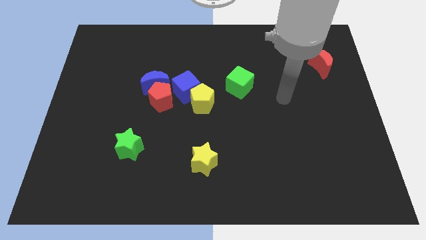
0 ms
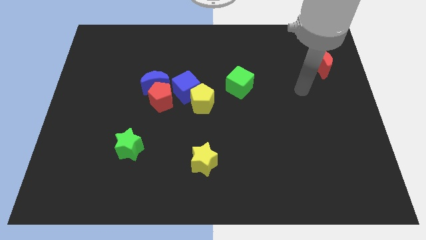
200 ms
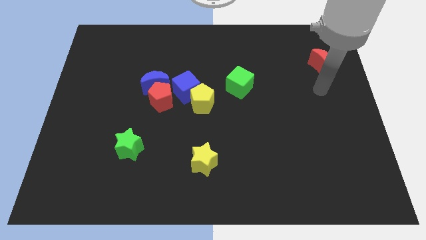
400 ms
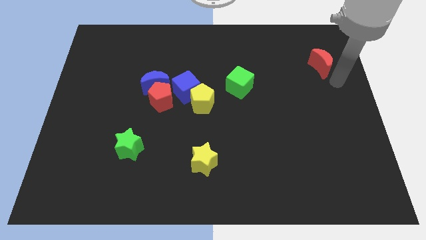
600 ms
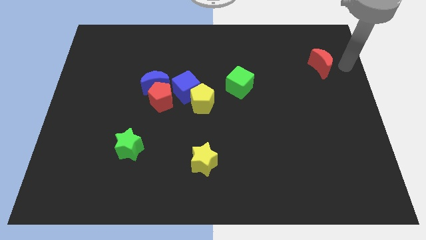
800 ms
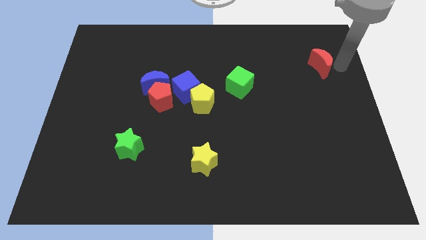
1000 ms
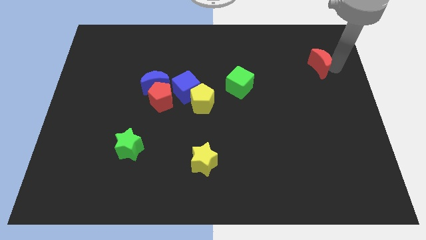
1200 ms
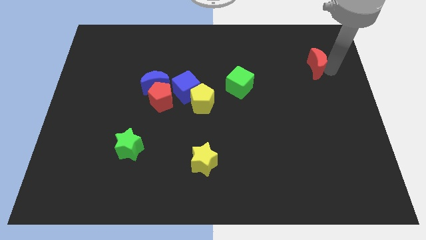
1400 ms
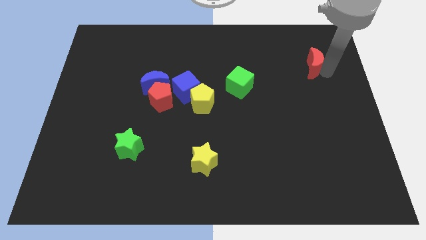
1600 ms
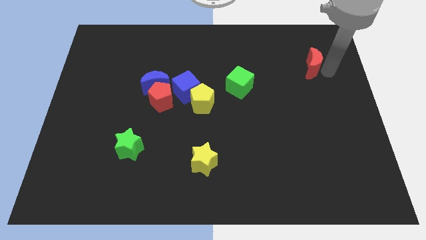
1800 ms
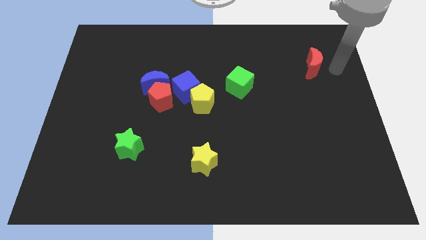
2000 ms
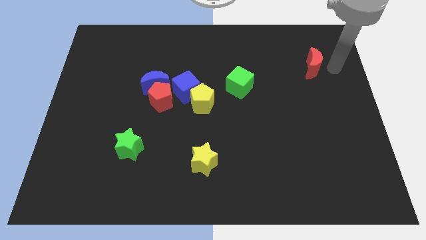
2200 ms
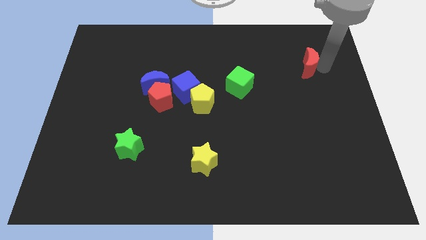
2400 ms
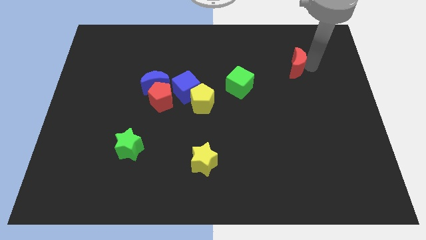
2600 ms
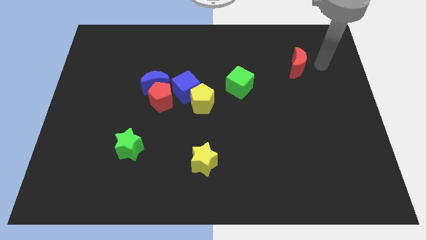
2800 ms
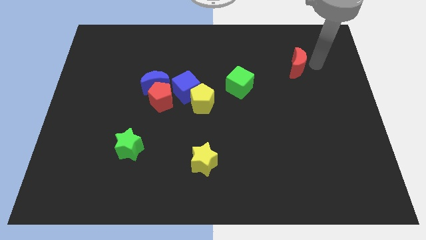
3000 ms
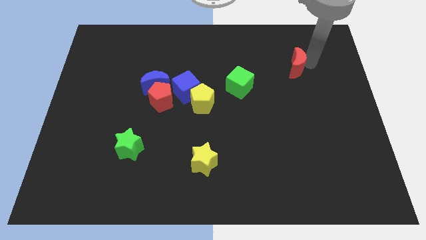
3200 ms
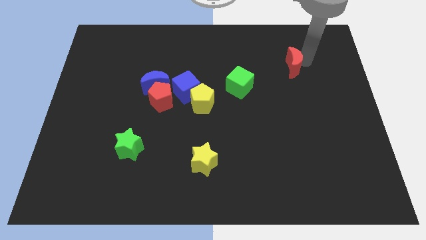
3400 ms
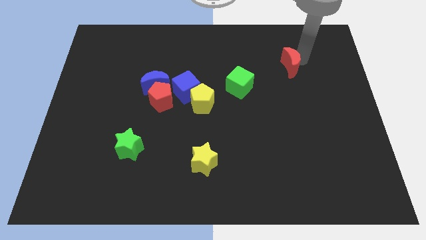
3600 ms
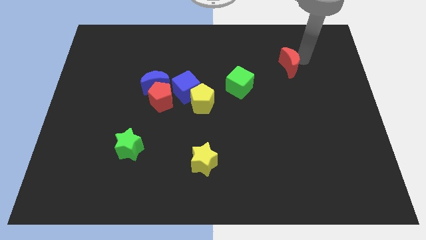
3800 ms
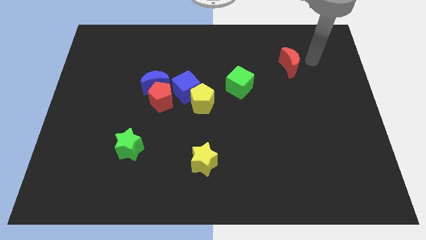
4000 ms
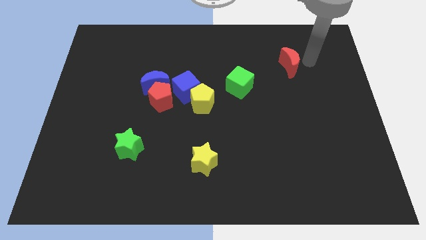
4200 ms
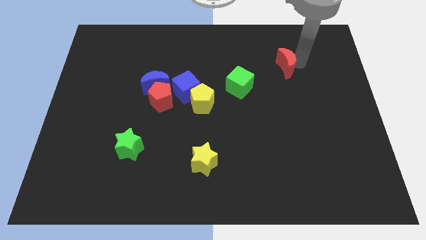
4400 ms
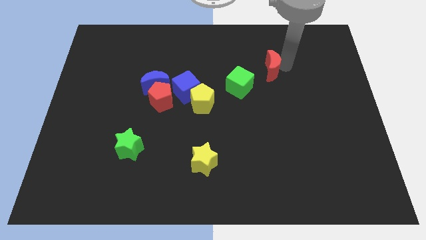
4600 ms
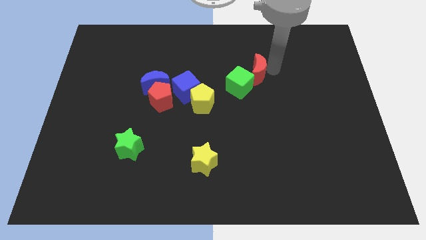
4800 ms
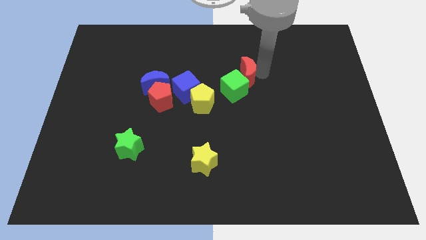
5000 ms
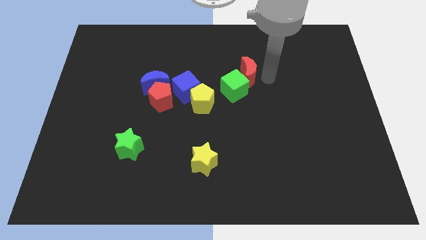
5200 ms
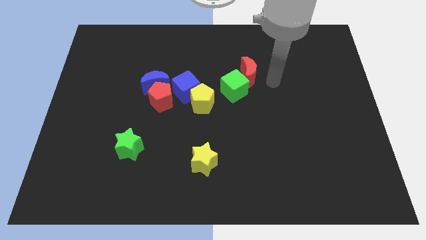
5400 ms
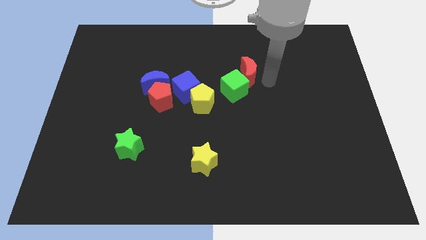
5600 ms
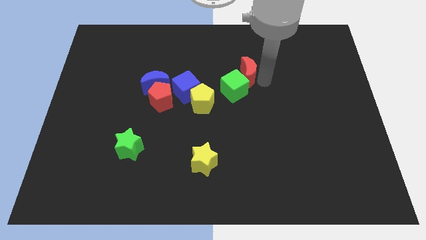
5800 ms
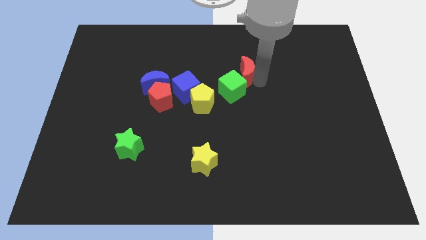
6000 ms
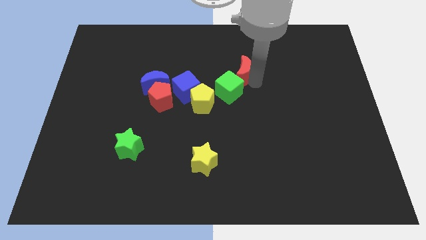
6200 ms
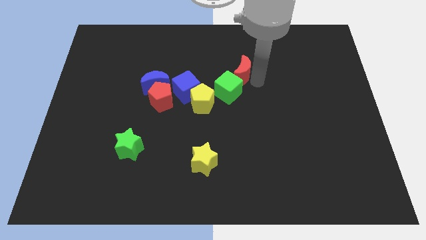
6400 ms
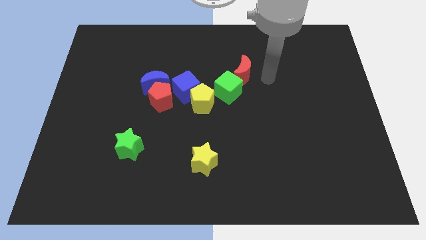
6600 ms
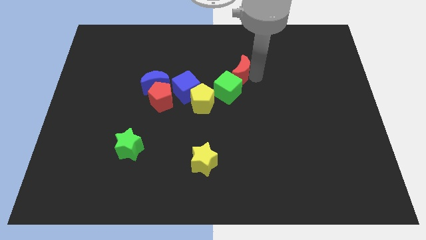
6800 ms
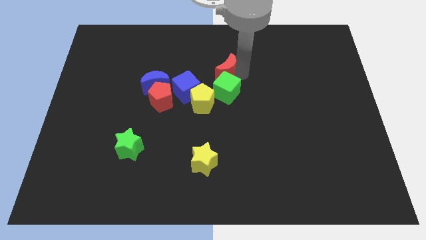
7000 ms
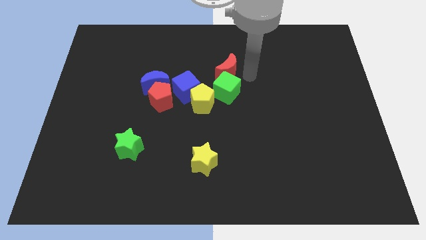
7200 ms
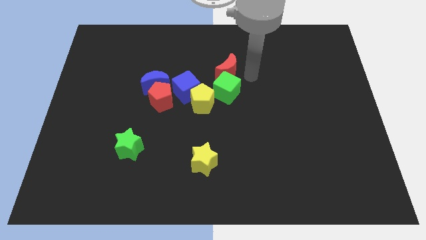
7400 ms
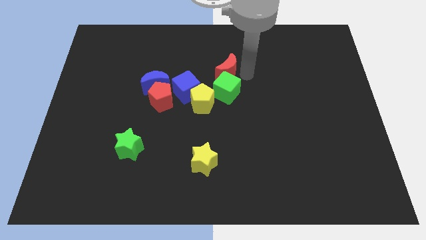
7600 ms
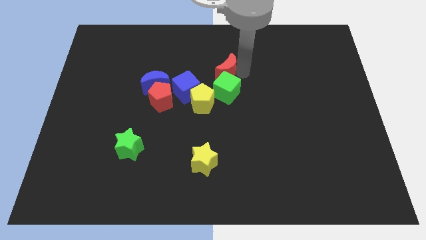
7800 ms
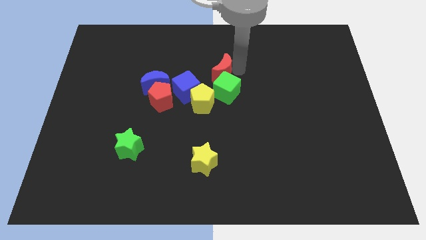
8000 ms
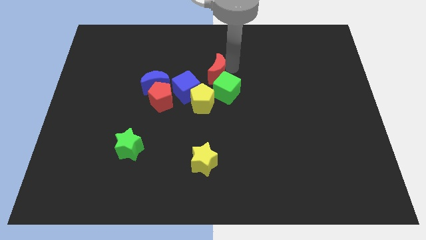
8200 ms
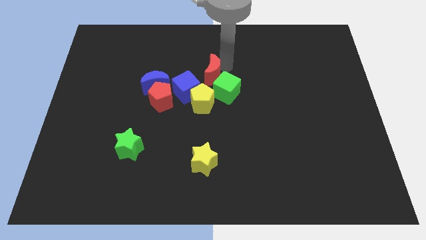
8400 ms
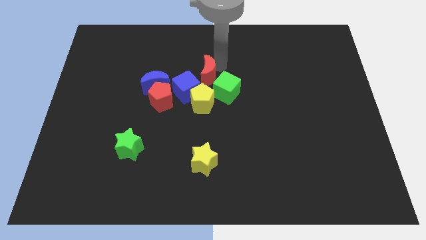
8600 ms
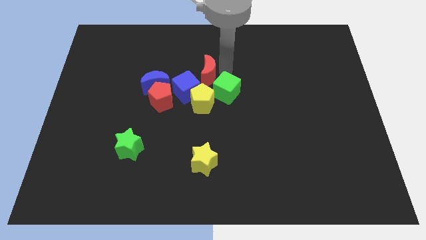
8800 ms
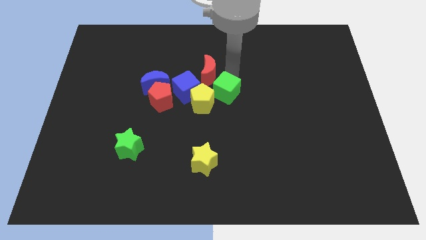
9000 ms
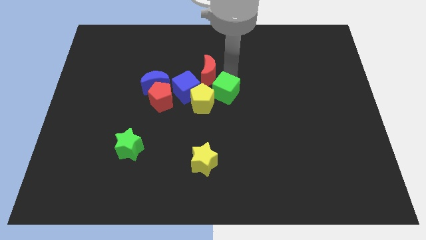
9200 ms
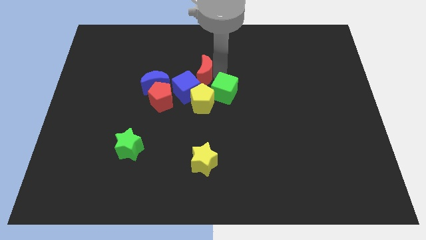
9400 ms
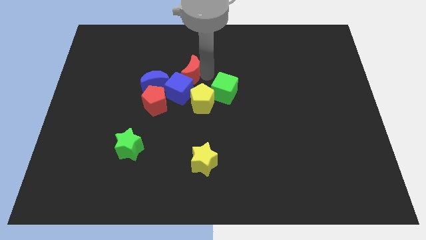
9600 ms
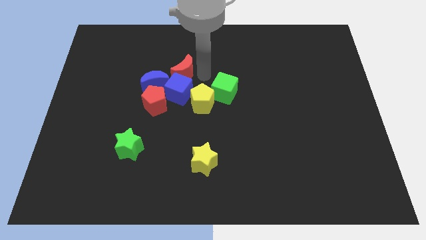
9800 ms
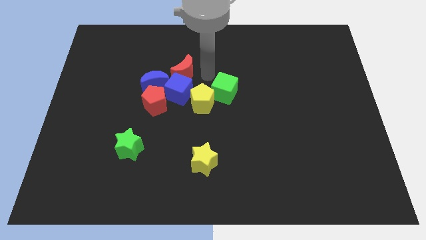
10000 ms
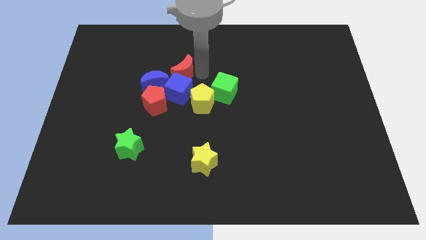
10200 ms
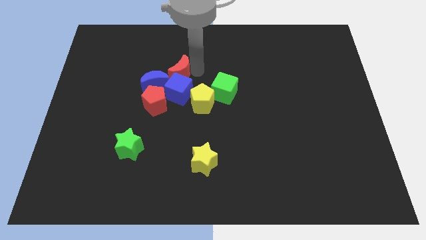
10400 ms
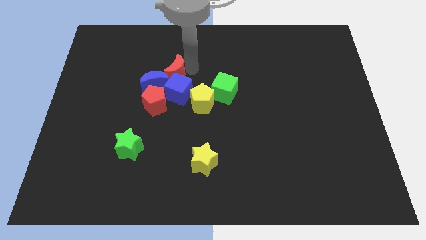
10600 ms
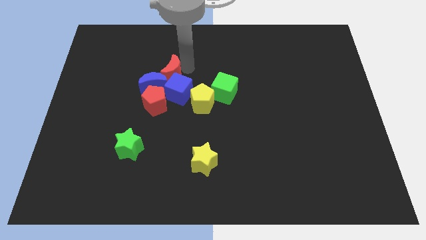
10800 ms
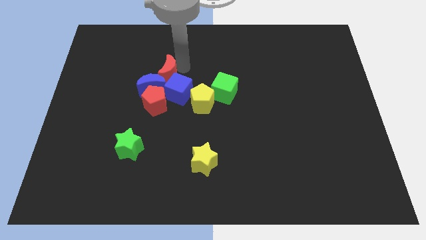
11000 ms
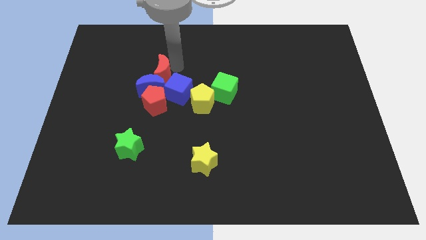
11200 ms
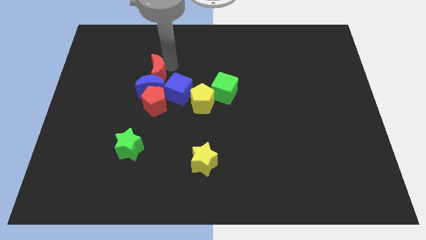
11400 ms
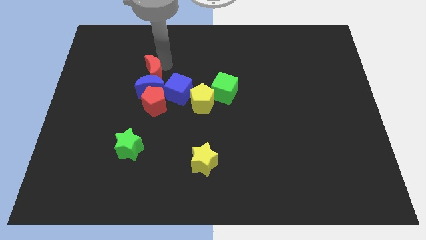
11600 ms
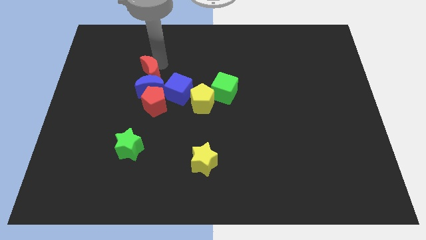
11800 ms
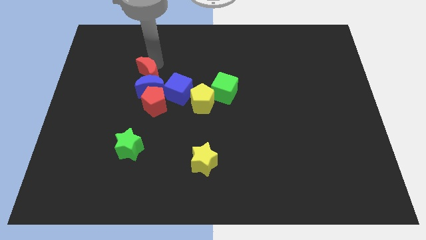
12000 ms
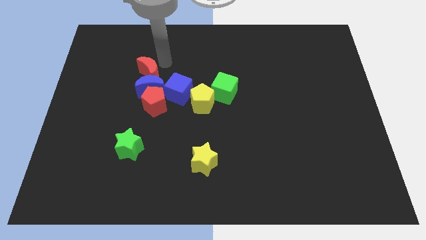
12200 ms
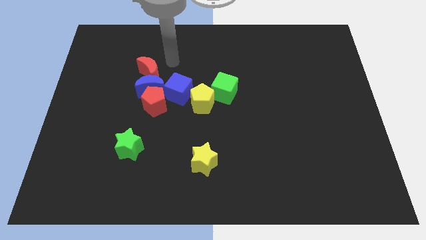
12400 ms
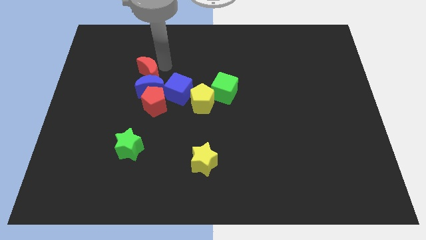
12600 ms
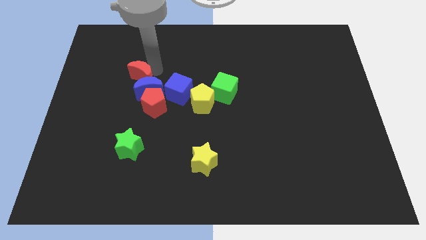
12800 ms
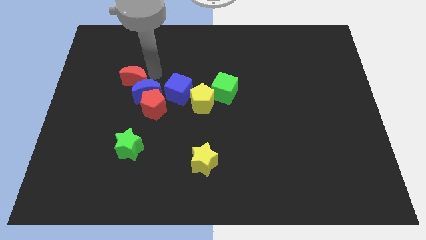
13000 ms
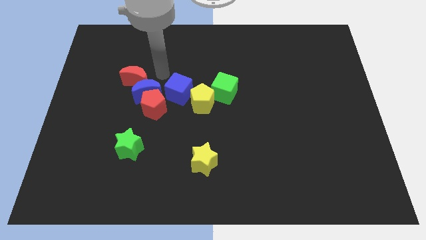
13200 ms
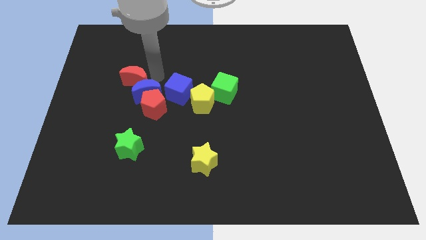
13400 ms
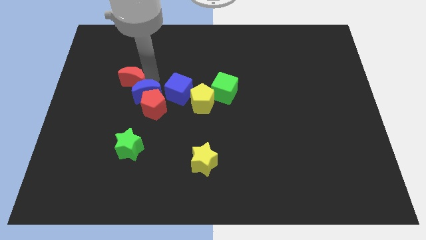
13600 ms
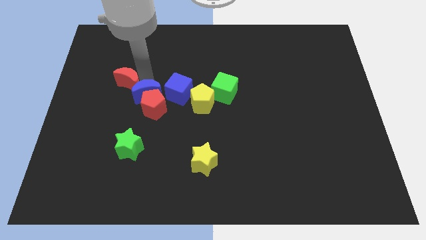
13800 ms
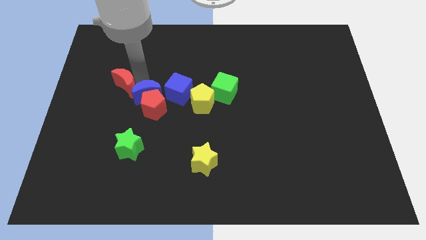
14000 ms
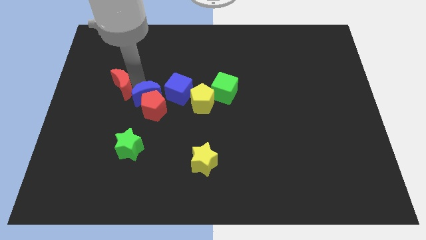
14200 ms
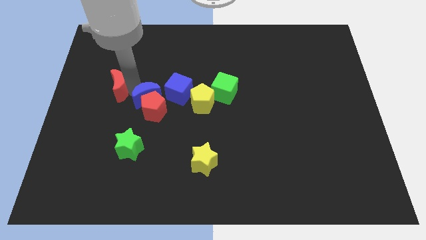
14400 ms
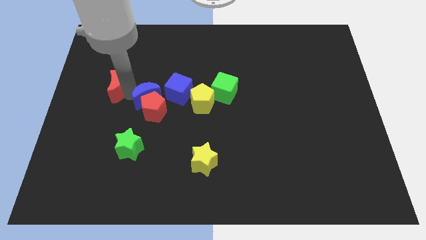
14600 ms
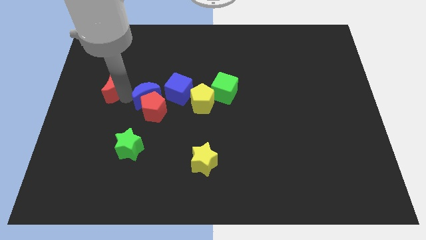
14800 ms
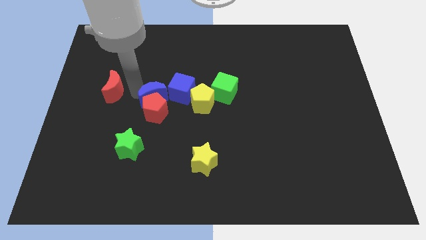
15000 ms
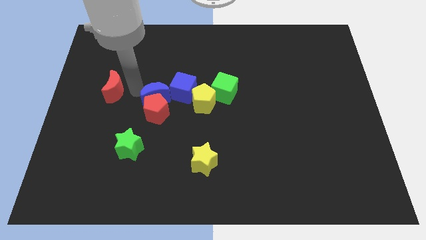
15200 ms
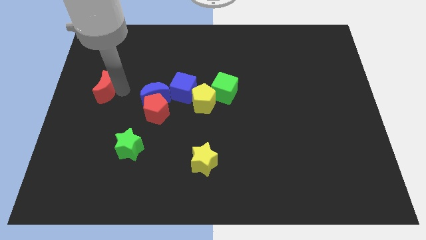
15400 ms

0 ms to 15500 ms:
slide the red moon to the center left
